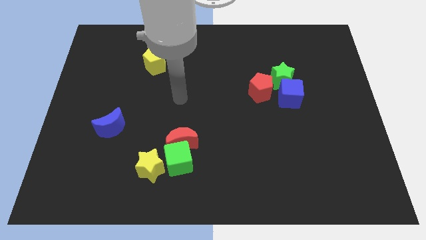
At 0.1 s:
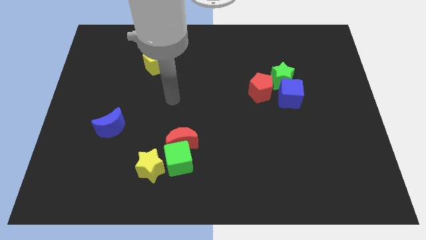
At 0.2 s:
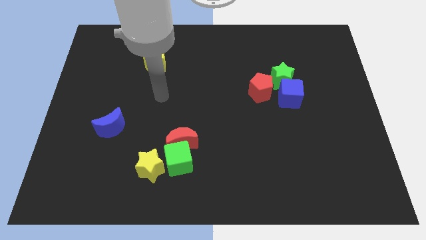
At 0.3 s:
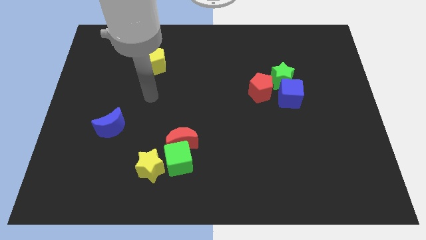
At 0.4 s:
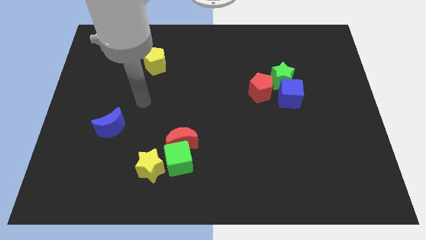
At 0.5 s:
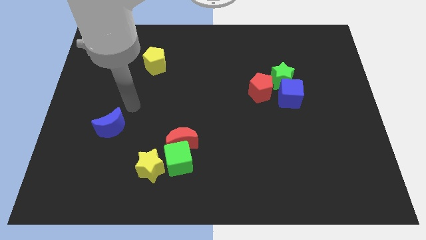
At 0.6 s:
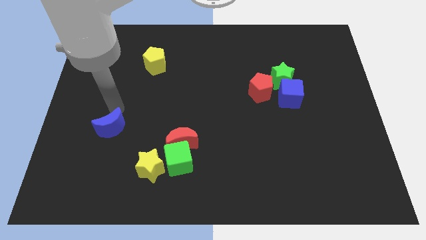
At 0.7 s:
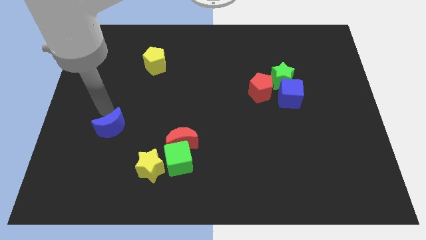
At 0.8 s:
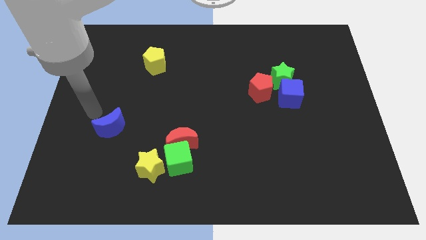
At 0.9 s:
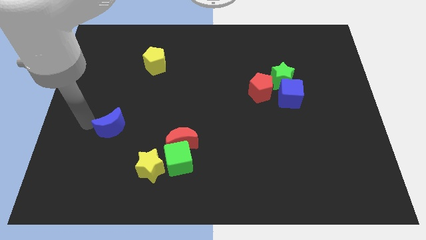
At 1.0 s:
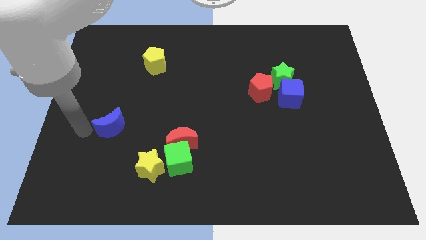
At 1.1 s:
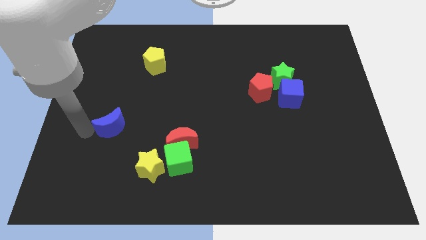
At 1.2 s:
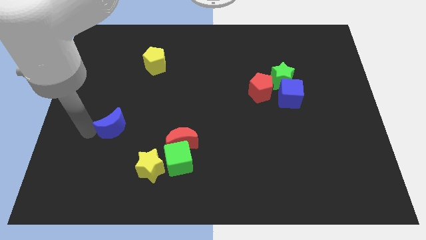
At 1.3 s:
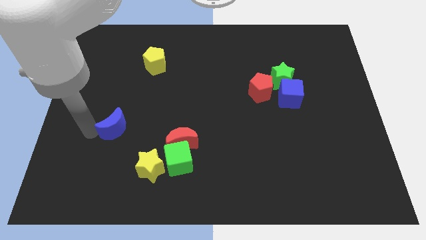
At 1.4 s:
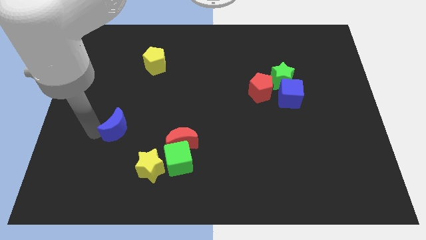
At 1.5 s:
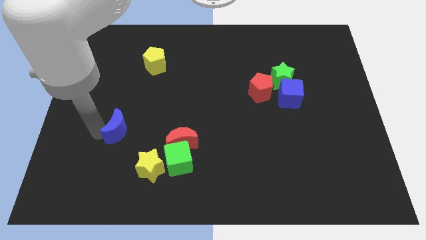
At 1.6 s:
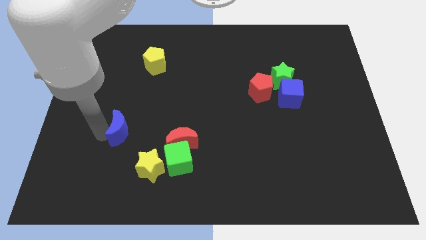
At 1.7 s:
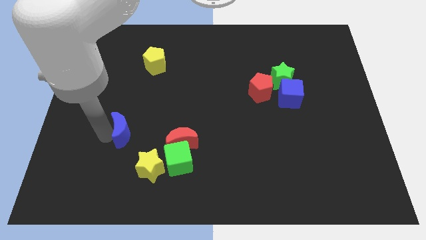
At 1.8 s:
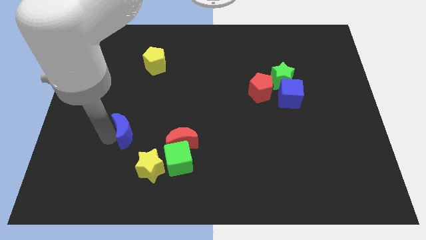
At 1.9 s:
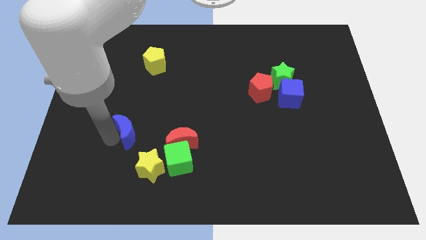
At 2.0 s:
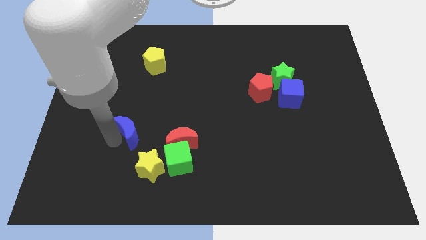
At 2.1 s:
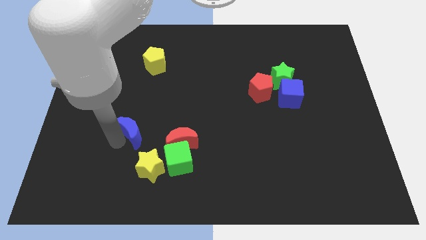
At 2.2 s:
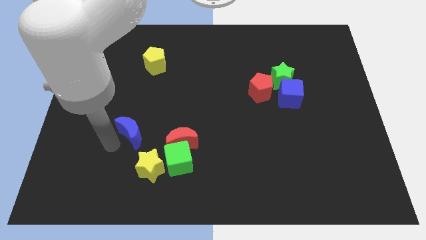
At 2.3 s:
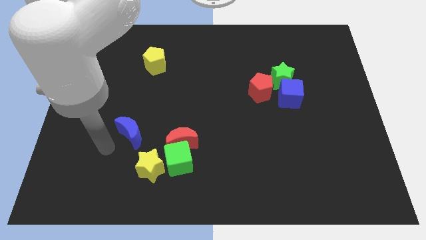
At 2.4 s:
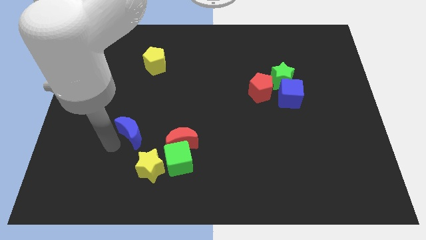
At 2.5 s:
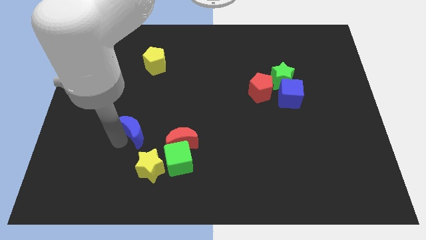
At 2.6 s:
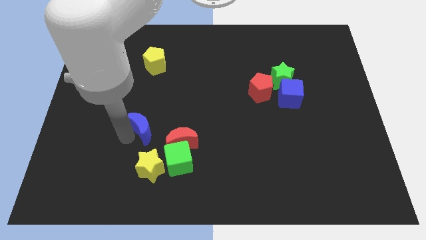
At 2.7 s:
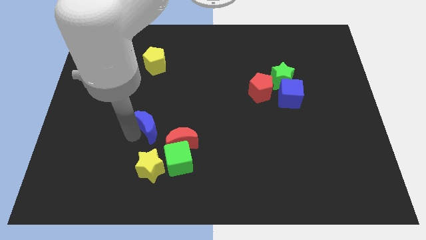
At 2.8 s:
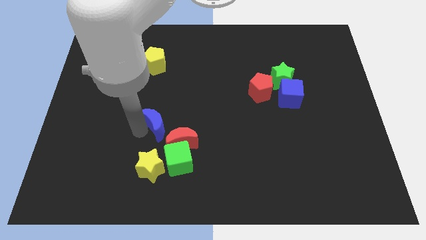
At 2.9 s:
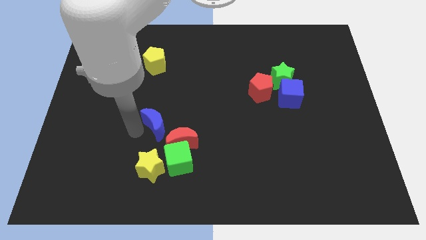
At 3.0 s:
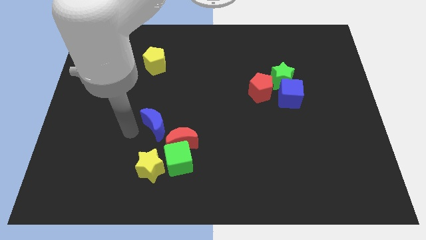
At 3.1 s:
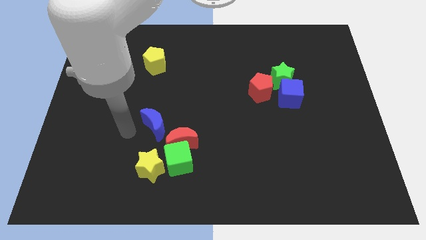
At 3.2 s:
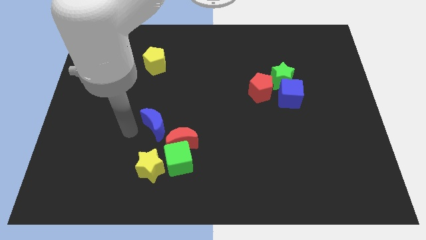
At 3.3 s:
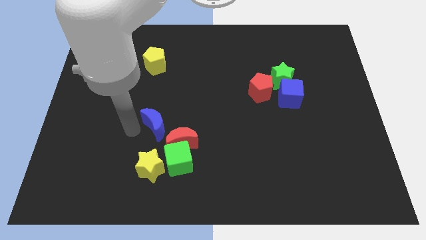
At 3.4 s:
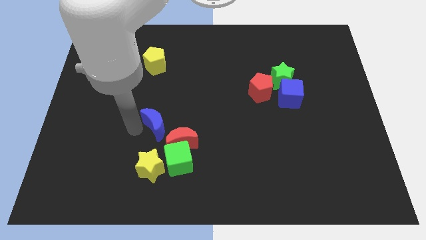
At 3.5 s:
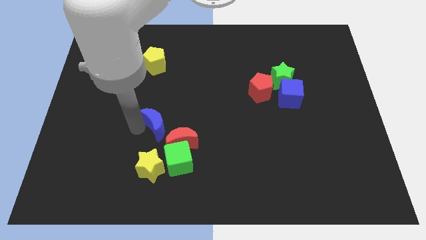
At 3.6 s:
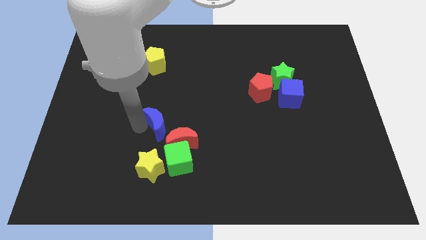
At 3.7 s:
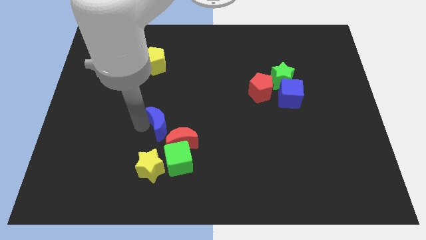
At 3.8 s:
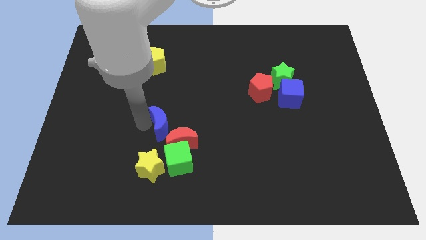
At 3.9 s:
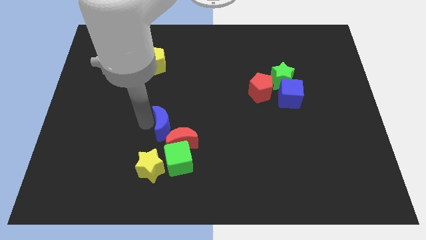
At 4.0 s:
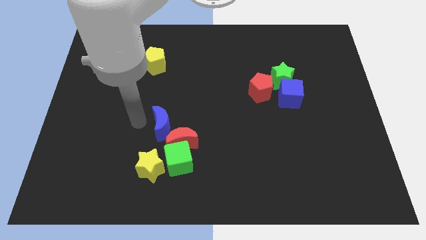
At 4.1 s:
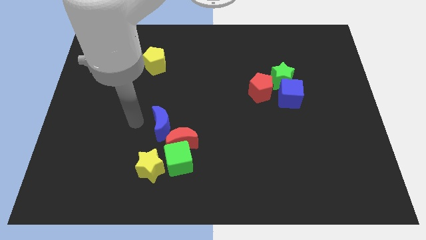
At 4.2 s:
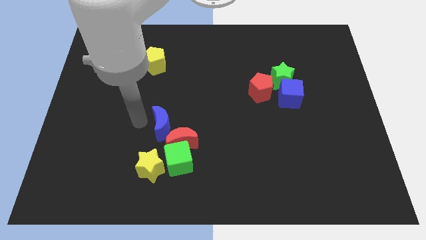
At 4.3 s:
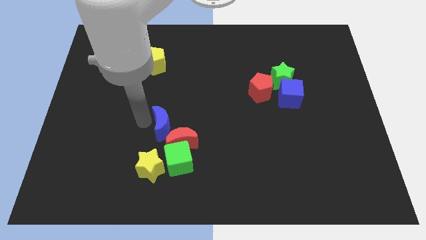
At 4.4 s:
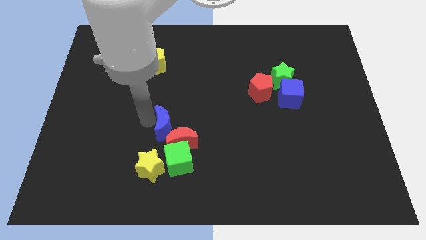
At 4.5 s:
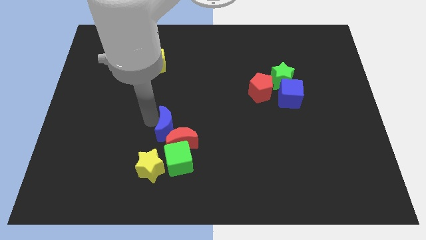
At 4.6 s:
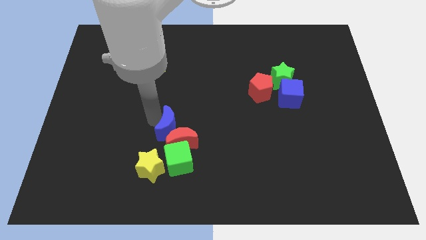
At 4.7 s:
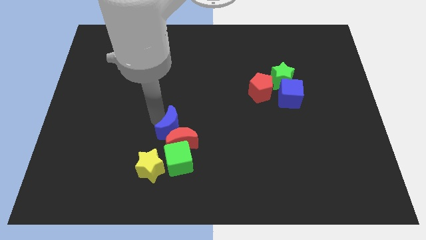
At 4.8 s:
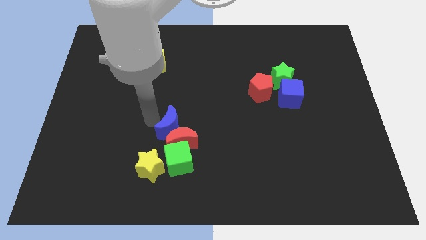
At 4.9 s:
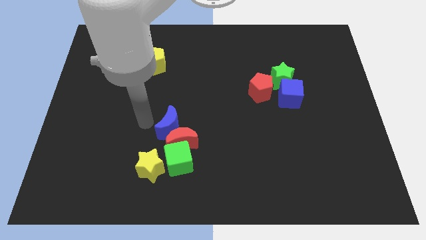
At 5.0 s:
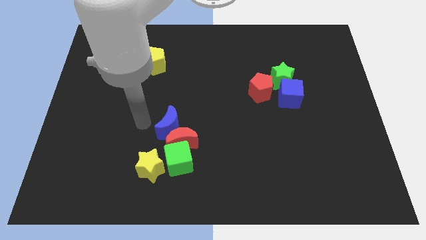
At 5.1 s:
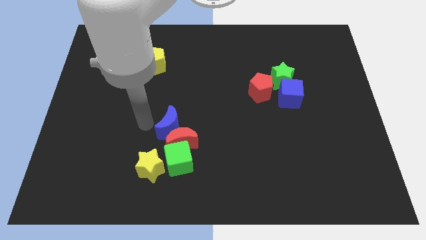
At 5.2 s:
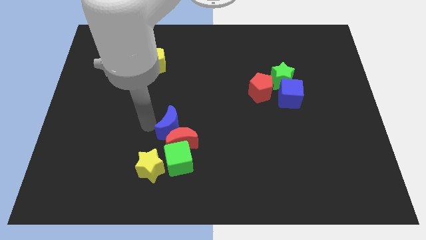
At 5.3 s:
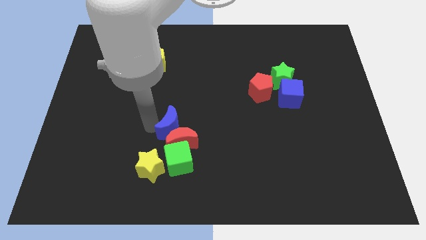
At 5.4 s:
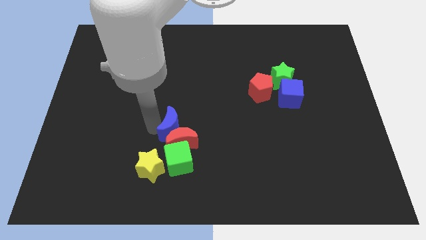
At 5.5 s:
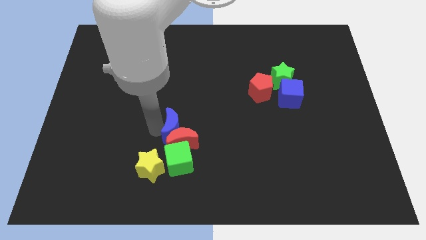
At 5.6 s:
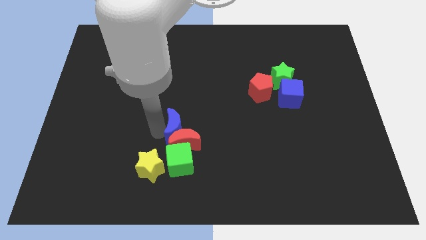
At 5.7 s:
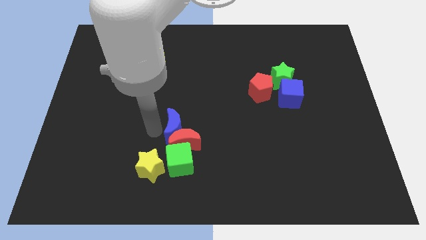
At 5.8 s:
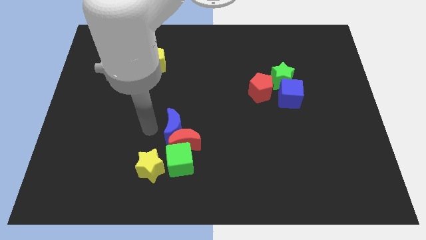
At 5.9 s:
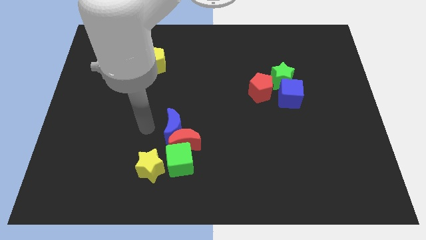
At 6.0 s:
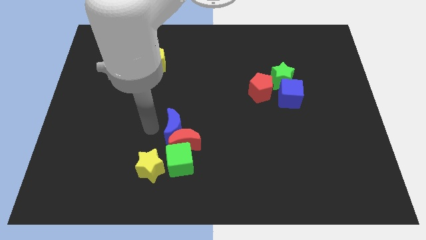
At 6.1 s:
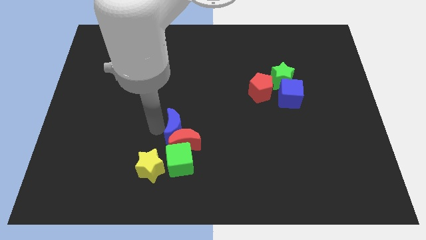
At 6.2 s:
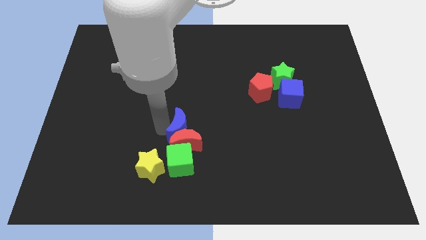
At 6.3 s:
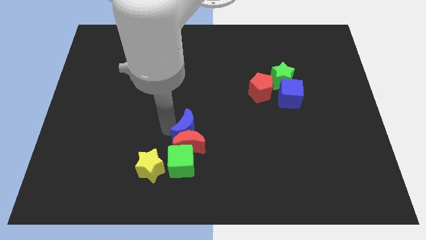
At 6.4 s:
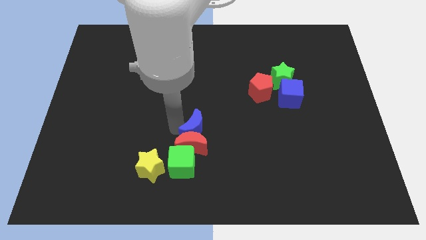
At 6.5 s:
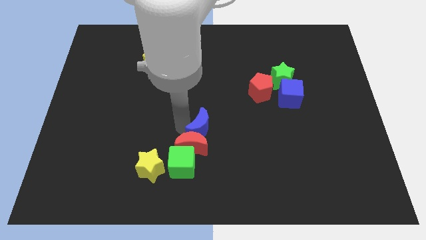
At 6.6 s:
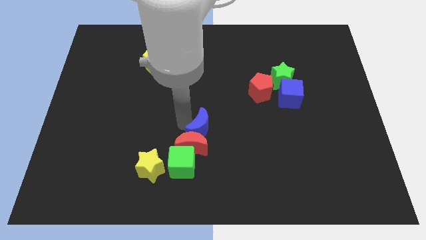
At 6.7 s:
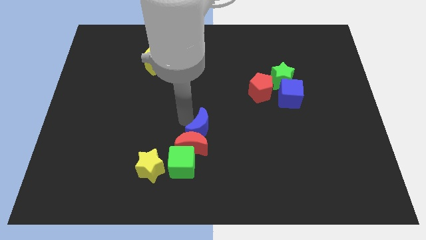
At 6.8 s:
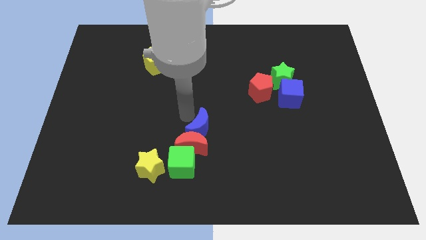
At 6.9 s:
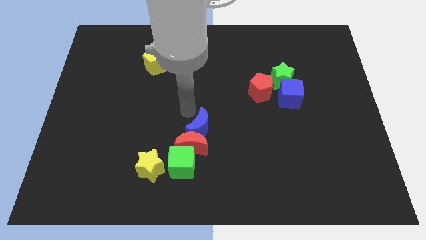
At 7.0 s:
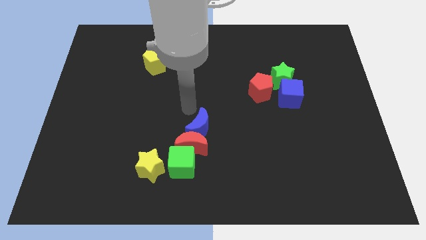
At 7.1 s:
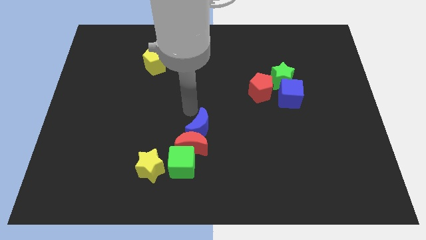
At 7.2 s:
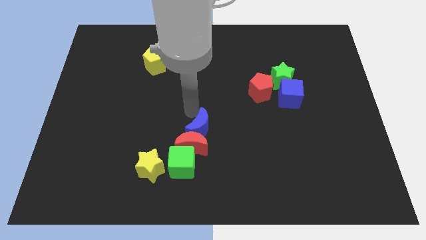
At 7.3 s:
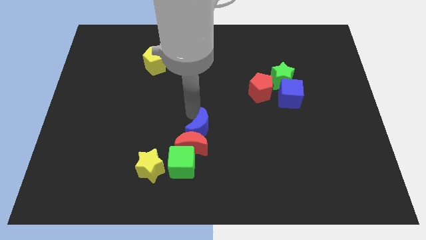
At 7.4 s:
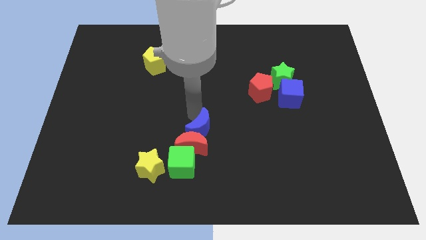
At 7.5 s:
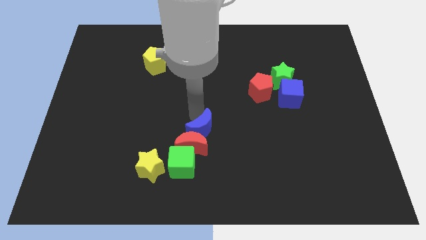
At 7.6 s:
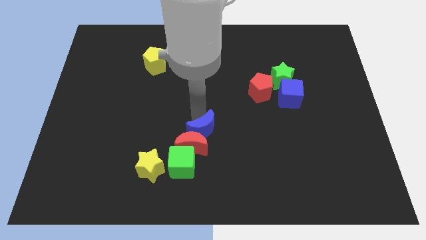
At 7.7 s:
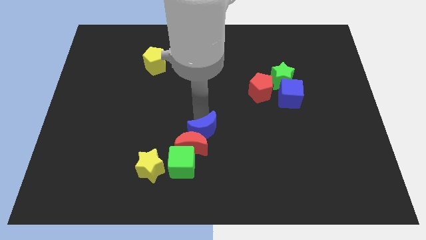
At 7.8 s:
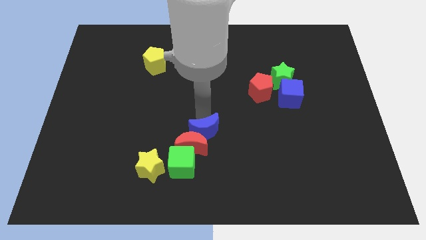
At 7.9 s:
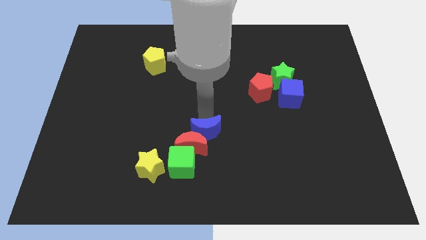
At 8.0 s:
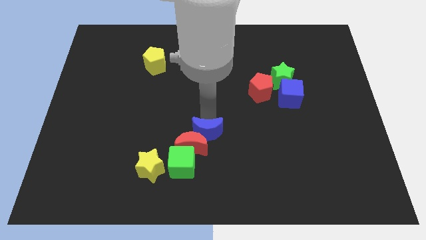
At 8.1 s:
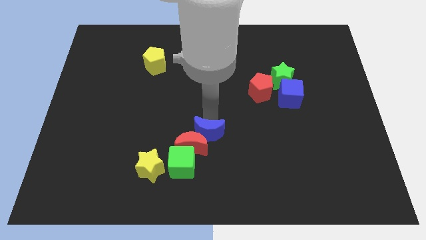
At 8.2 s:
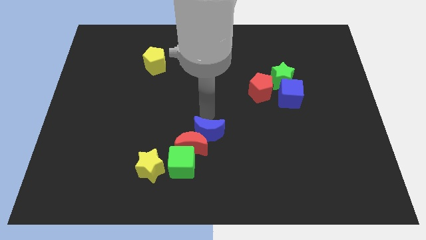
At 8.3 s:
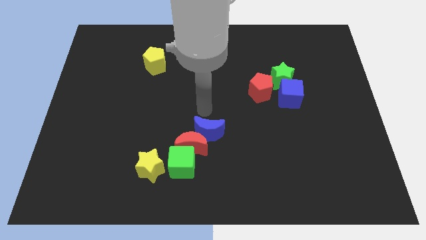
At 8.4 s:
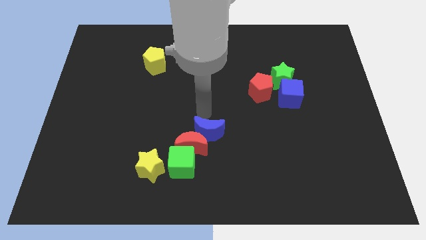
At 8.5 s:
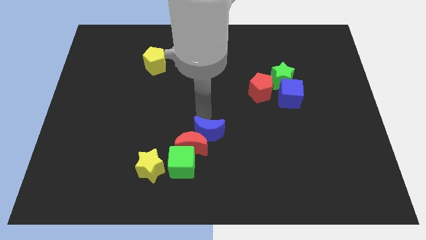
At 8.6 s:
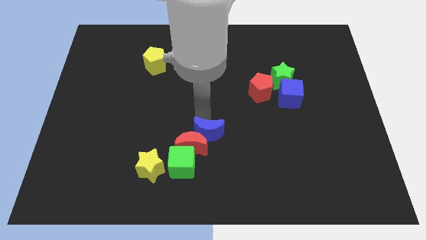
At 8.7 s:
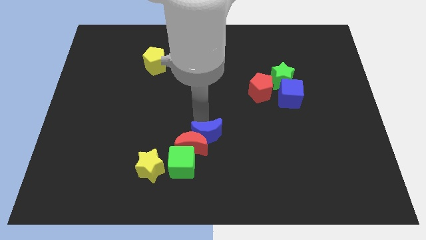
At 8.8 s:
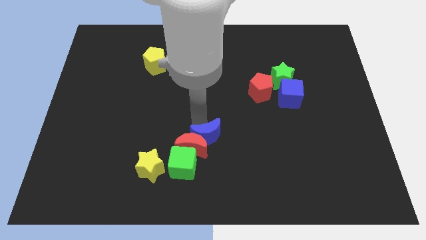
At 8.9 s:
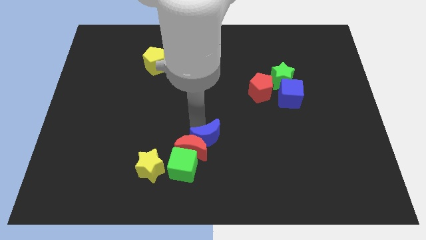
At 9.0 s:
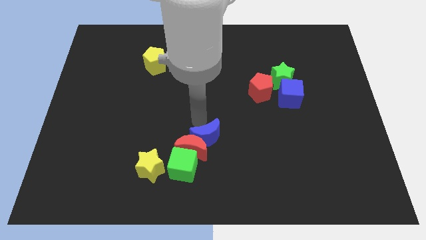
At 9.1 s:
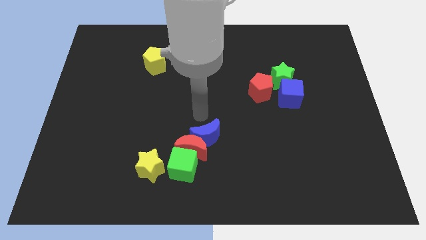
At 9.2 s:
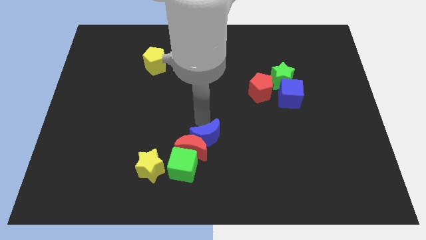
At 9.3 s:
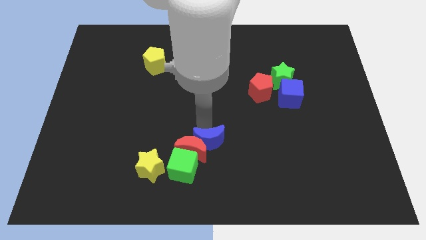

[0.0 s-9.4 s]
push the blue moon to the bottom right side of the red moon
